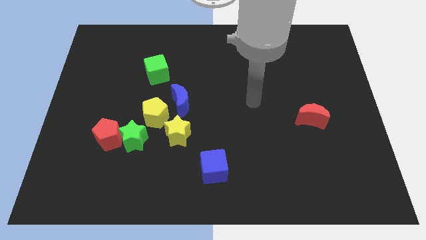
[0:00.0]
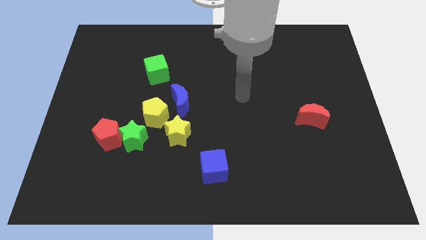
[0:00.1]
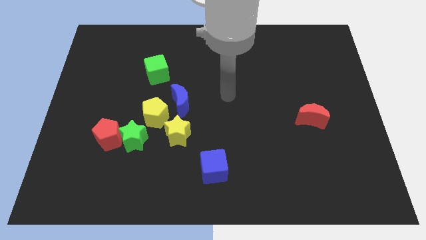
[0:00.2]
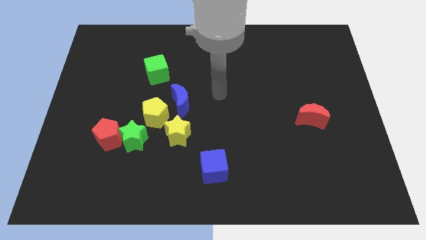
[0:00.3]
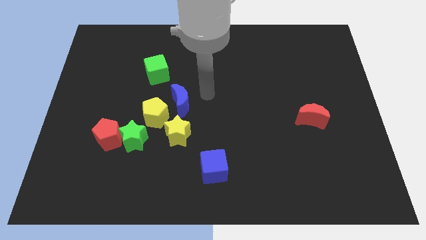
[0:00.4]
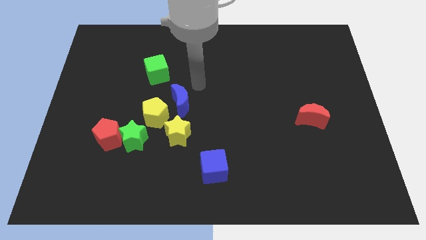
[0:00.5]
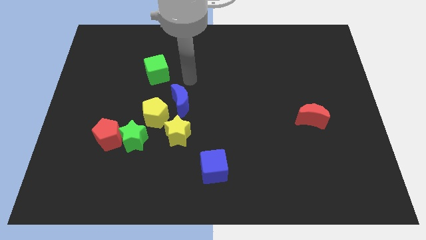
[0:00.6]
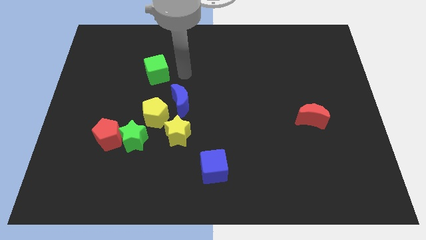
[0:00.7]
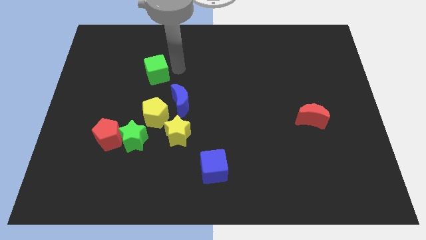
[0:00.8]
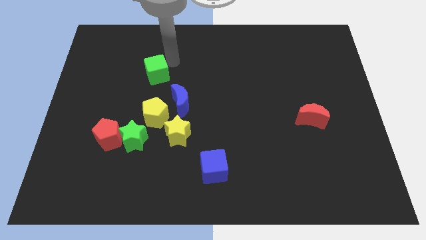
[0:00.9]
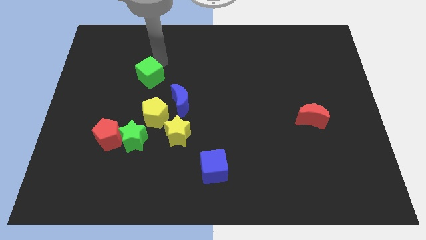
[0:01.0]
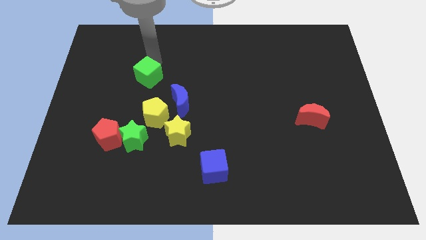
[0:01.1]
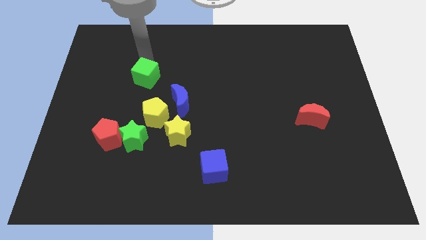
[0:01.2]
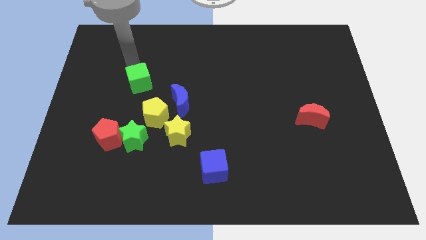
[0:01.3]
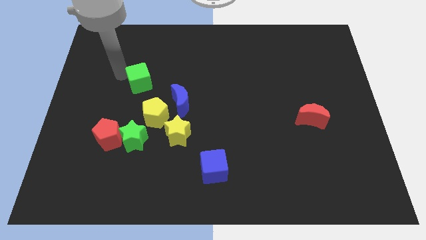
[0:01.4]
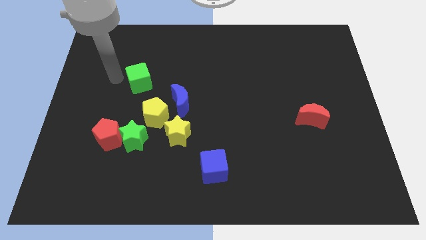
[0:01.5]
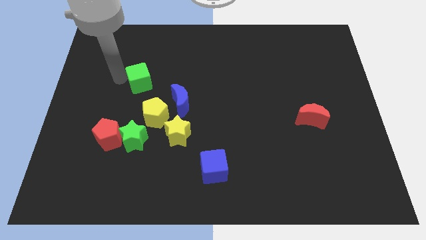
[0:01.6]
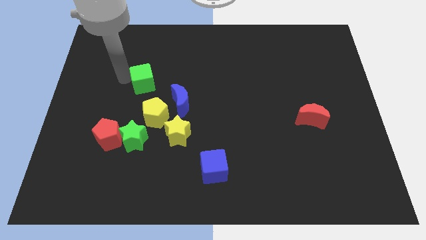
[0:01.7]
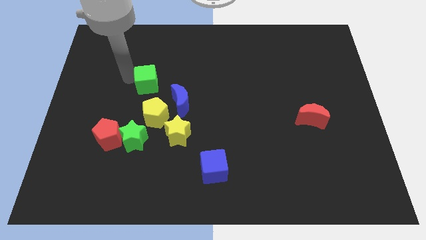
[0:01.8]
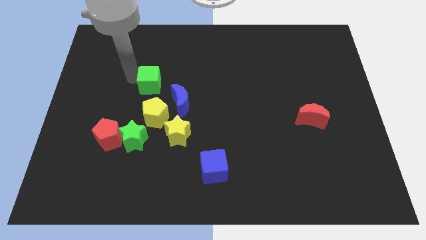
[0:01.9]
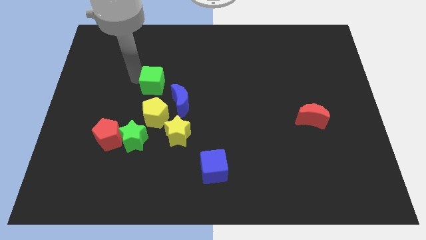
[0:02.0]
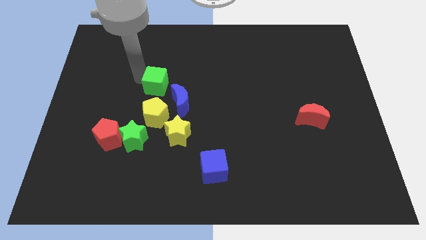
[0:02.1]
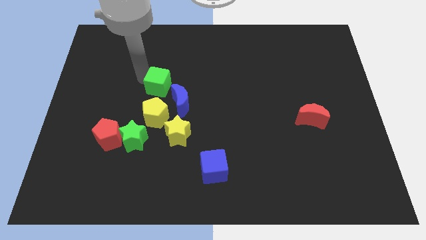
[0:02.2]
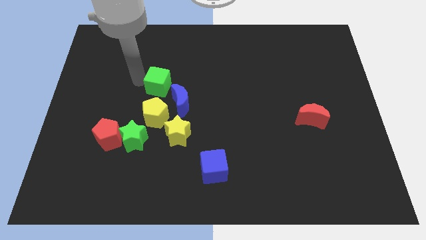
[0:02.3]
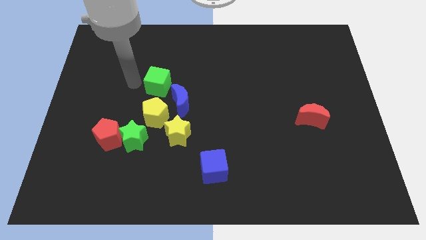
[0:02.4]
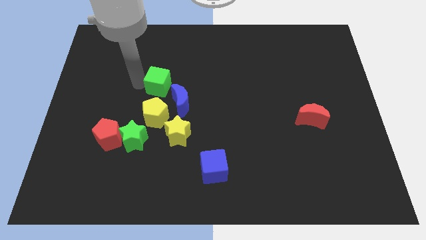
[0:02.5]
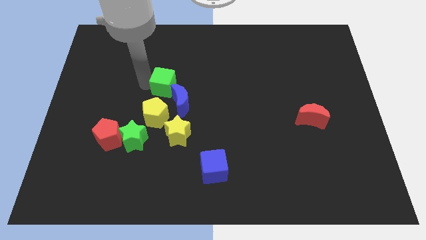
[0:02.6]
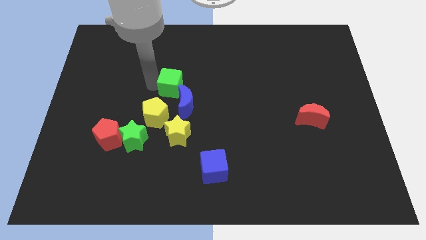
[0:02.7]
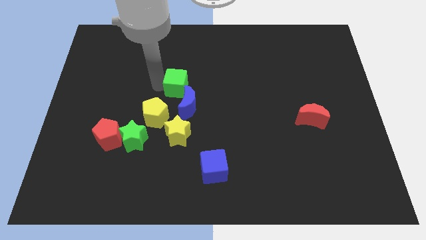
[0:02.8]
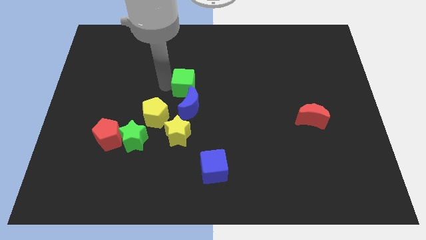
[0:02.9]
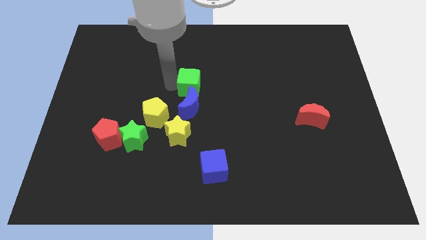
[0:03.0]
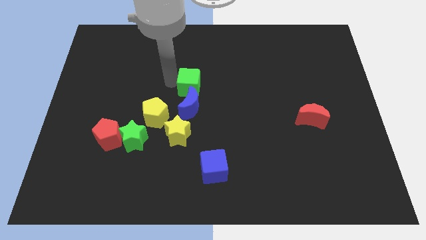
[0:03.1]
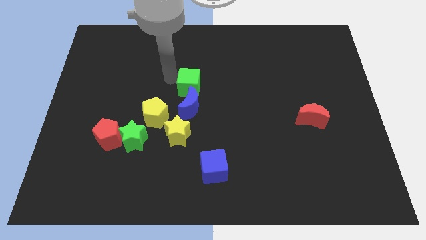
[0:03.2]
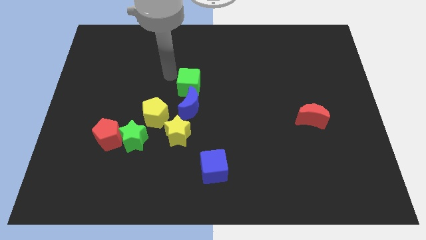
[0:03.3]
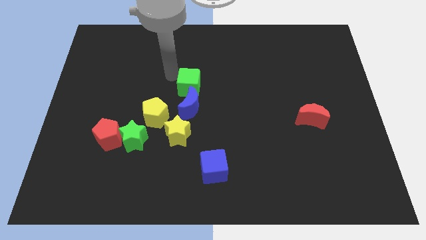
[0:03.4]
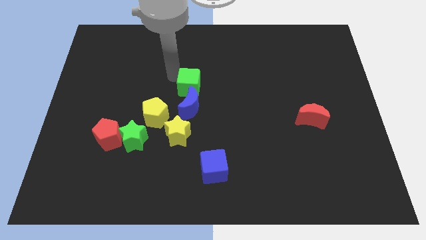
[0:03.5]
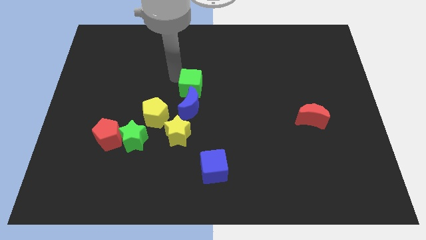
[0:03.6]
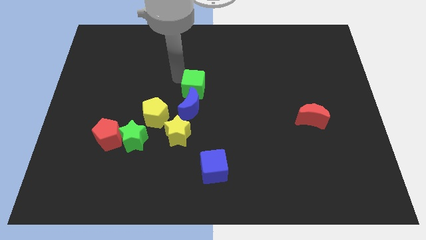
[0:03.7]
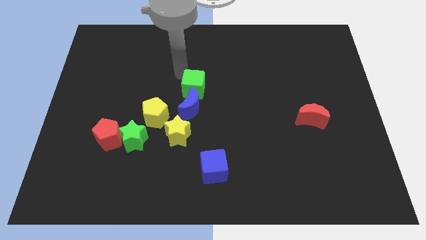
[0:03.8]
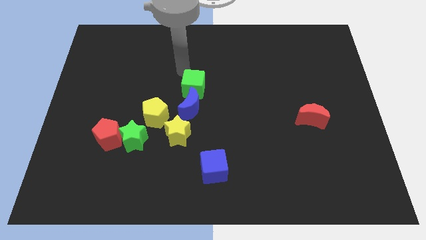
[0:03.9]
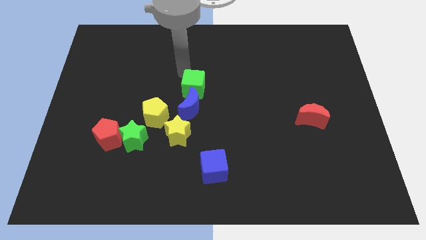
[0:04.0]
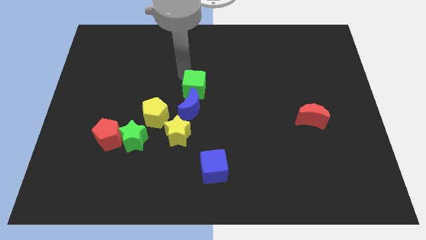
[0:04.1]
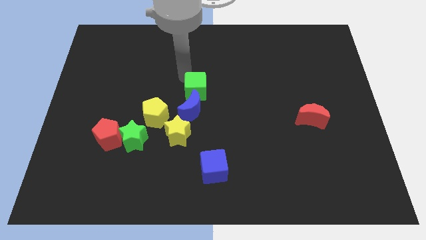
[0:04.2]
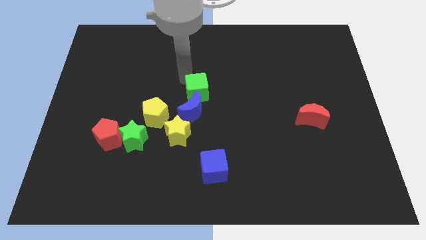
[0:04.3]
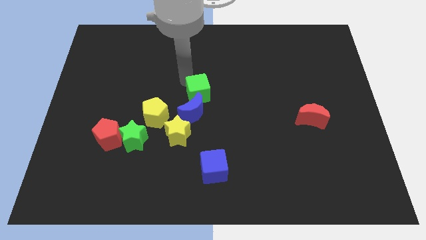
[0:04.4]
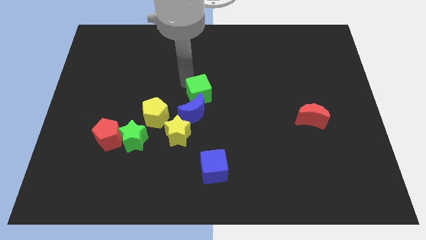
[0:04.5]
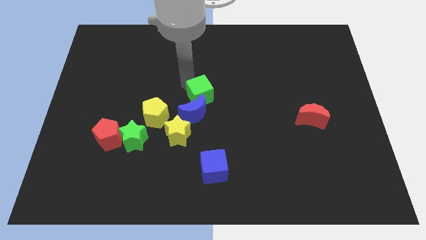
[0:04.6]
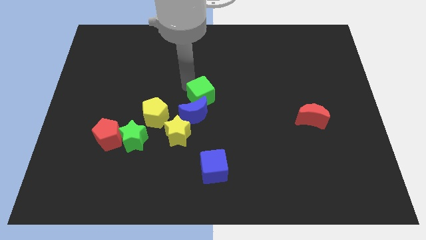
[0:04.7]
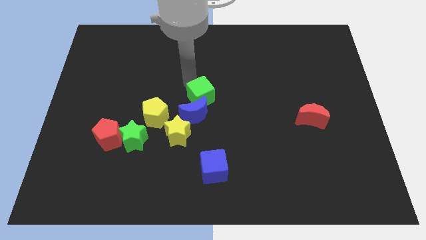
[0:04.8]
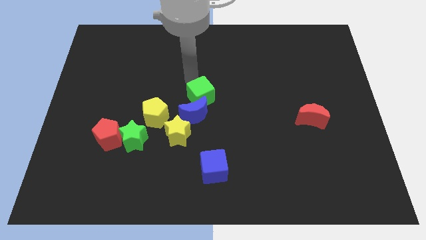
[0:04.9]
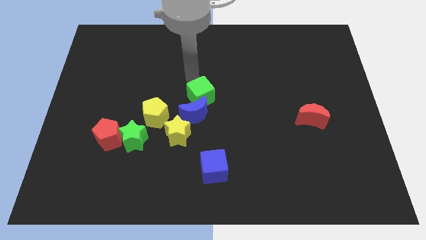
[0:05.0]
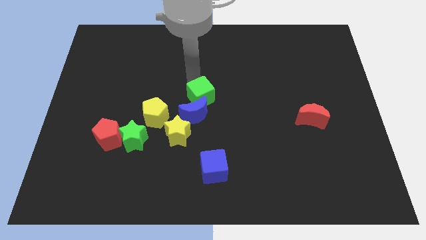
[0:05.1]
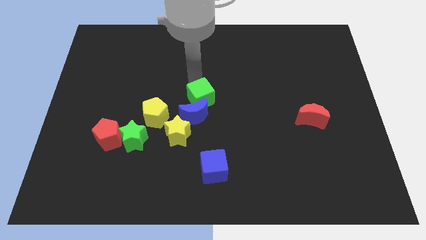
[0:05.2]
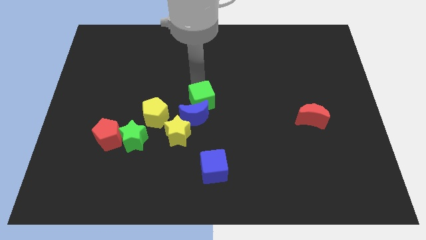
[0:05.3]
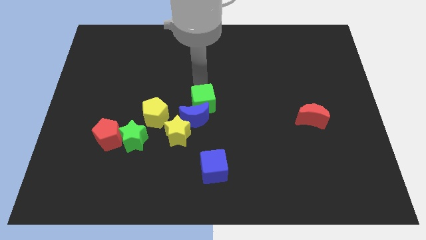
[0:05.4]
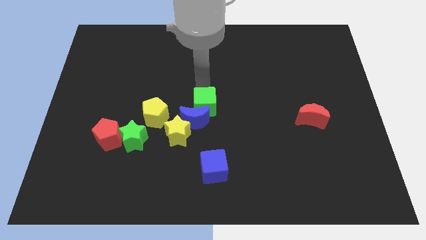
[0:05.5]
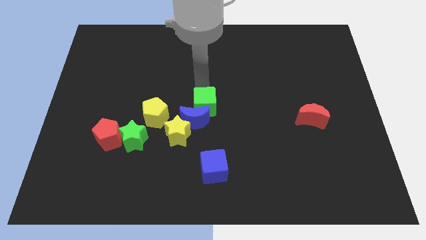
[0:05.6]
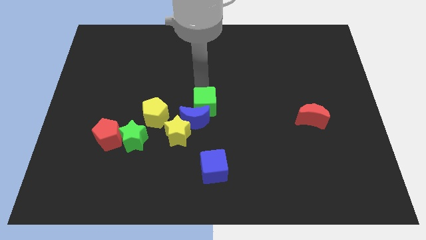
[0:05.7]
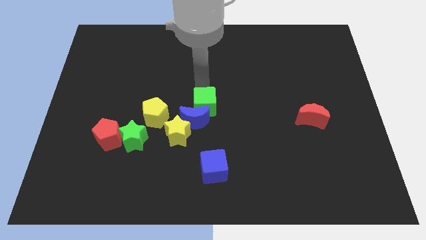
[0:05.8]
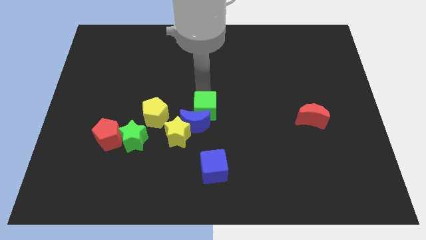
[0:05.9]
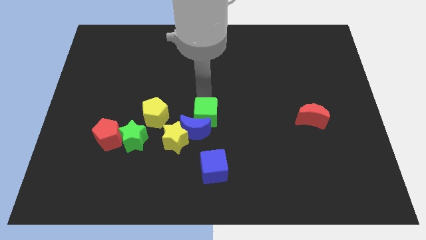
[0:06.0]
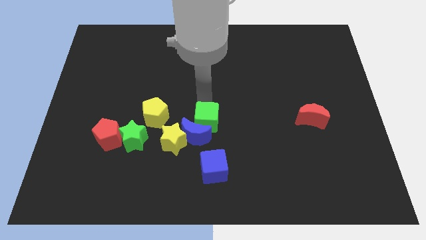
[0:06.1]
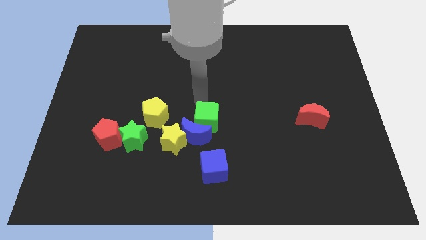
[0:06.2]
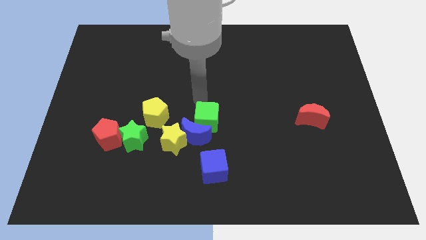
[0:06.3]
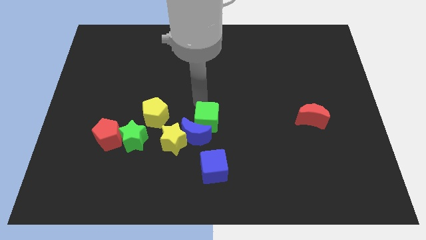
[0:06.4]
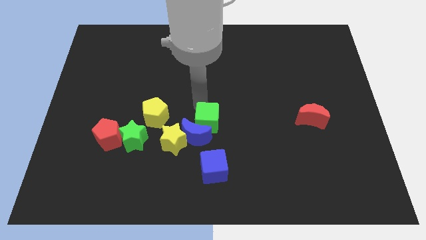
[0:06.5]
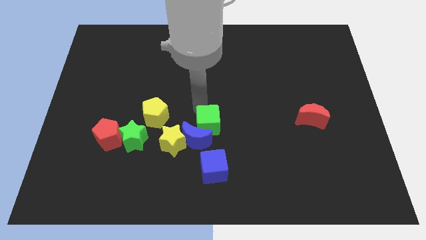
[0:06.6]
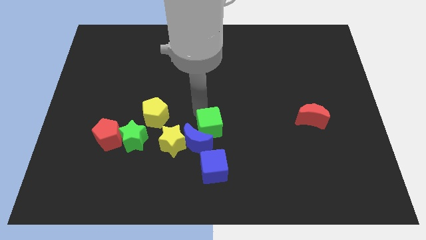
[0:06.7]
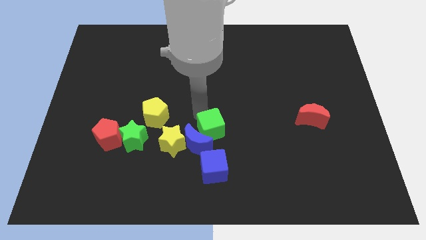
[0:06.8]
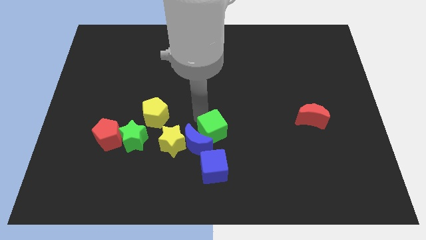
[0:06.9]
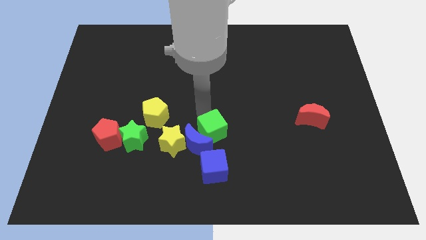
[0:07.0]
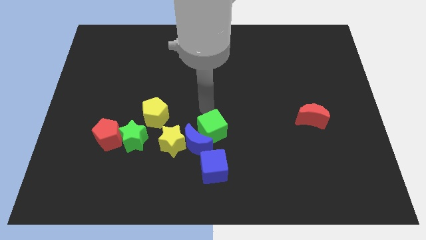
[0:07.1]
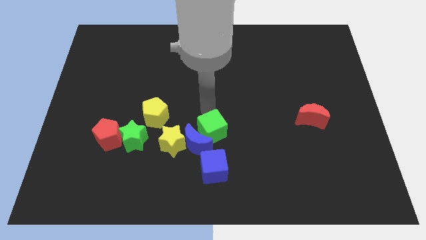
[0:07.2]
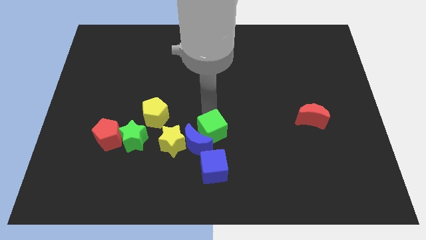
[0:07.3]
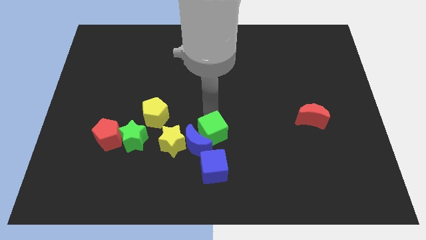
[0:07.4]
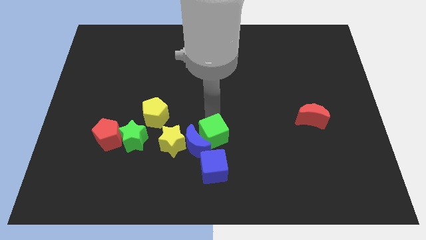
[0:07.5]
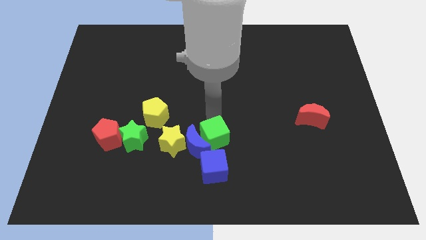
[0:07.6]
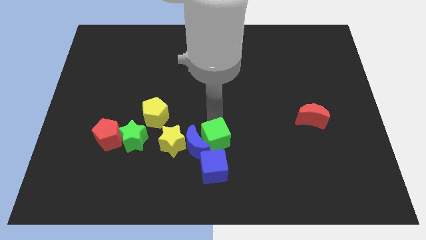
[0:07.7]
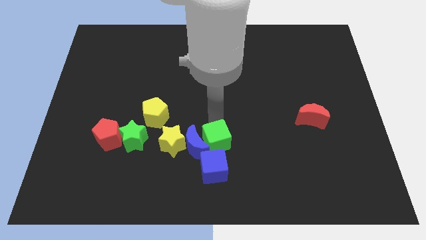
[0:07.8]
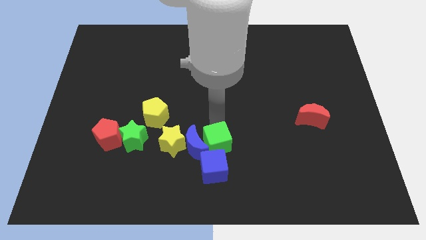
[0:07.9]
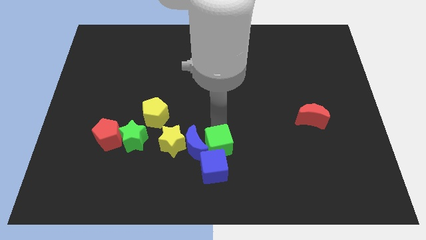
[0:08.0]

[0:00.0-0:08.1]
slide the green cube towards the blue cube
